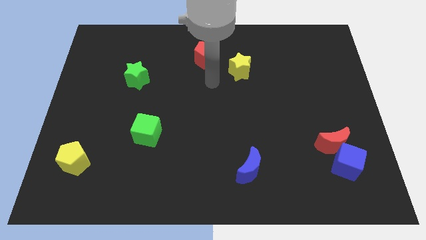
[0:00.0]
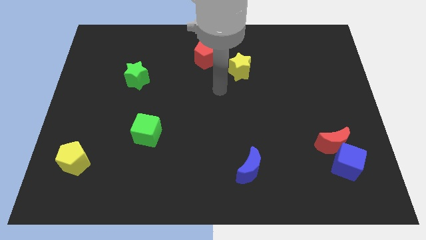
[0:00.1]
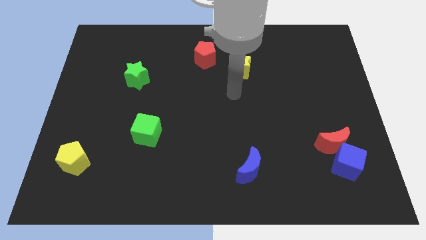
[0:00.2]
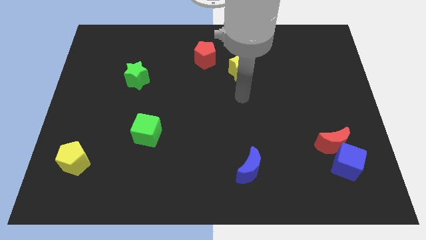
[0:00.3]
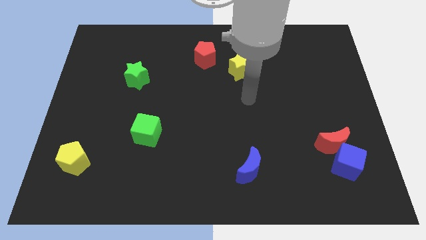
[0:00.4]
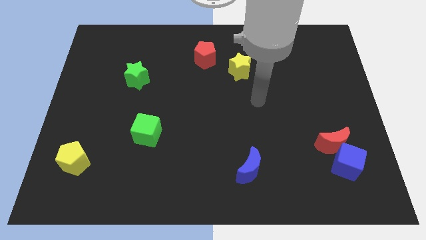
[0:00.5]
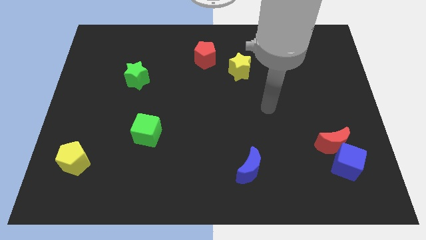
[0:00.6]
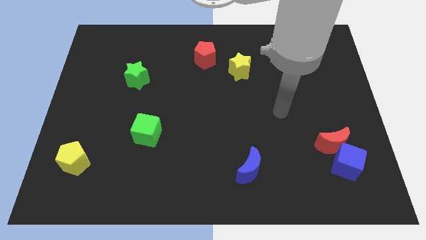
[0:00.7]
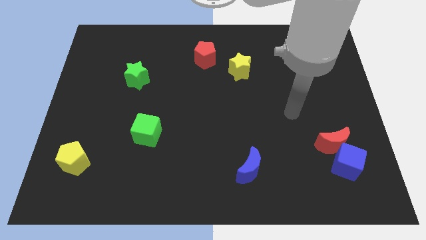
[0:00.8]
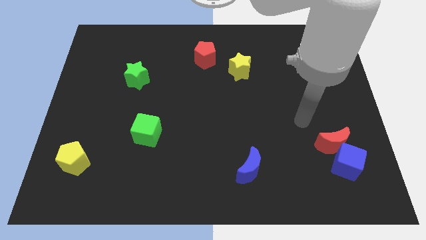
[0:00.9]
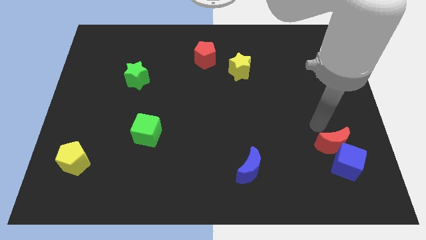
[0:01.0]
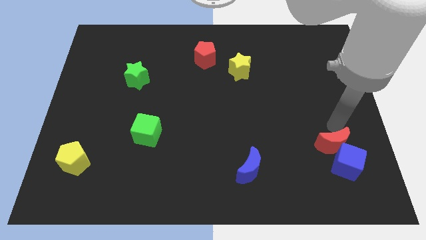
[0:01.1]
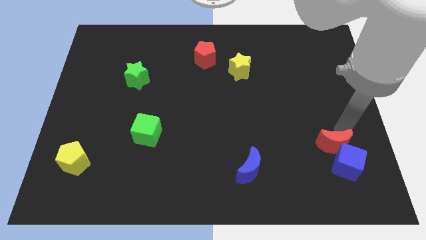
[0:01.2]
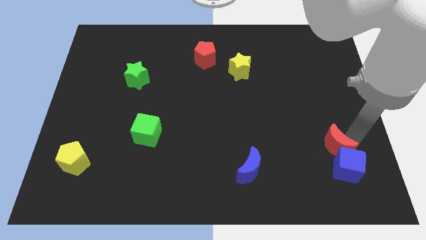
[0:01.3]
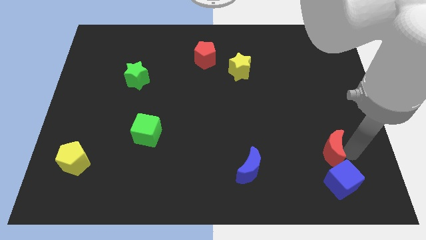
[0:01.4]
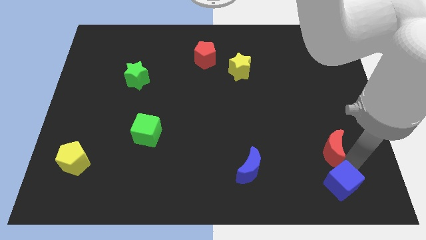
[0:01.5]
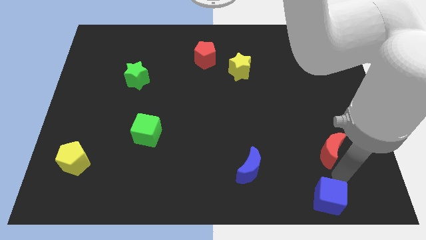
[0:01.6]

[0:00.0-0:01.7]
separate the red moon from the blue cube

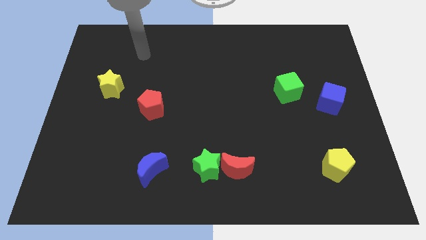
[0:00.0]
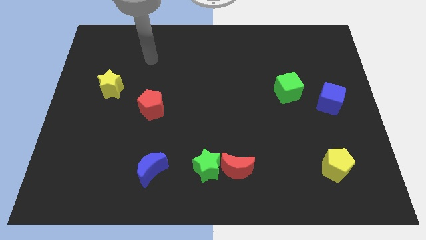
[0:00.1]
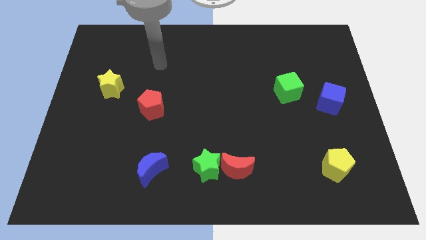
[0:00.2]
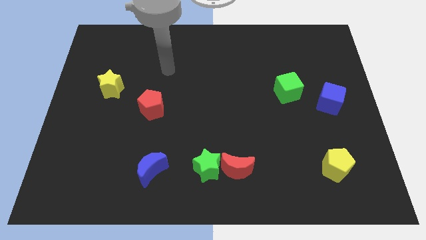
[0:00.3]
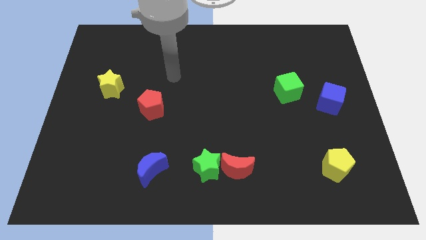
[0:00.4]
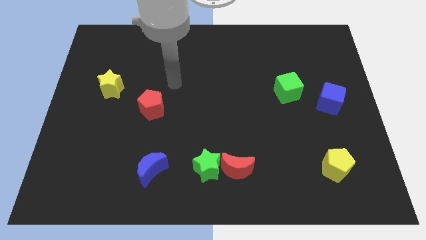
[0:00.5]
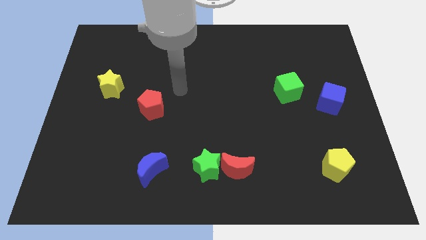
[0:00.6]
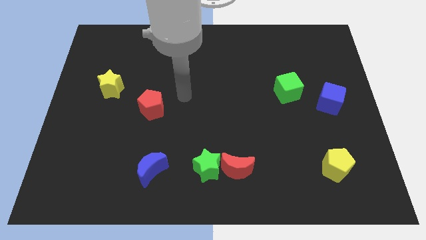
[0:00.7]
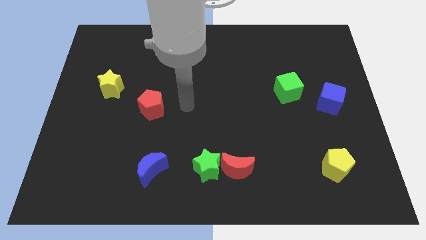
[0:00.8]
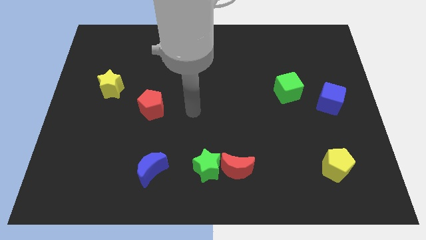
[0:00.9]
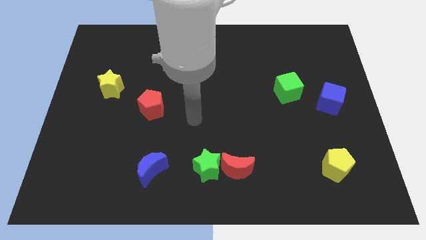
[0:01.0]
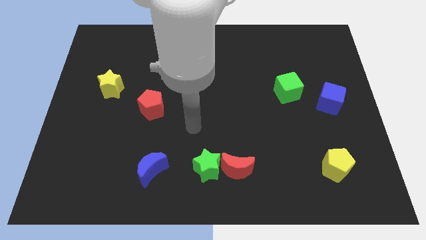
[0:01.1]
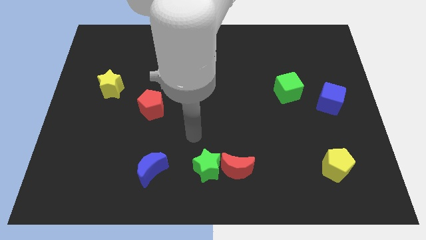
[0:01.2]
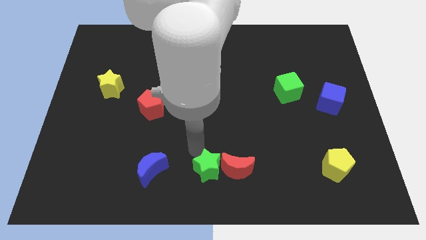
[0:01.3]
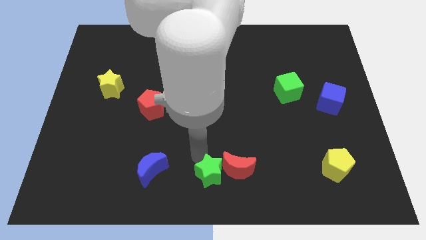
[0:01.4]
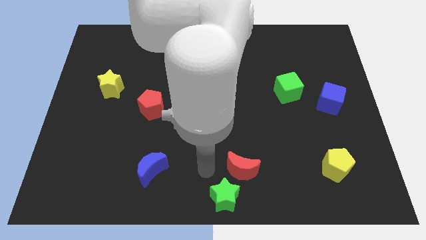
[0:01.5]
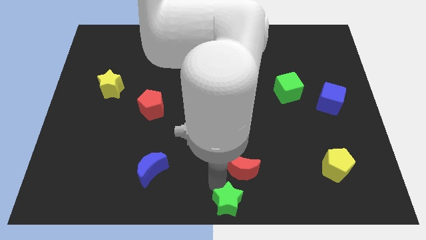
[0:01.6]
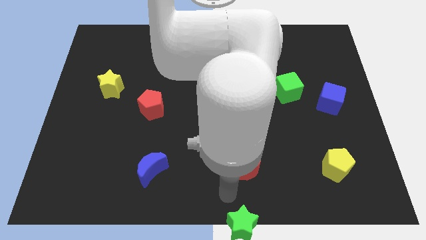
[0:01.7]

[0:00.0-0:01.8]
separate the red moon from the green star

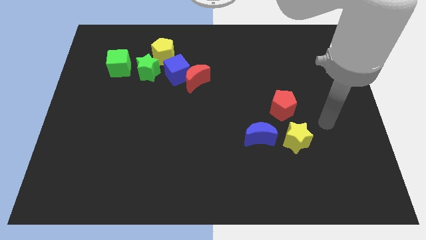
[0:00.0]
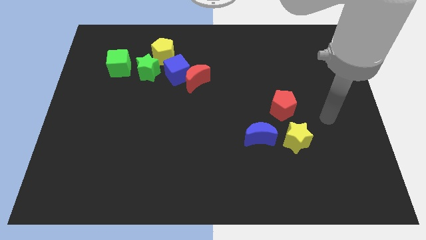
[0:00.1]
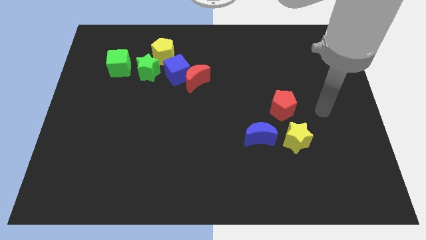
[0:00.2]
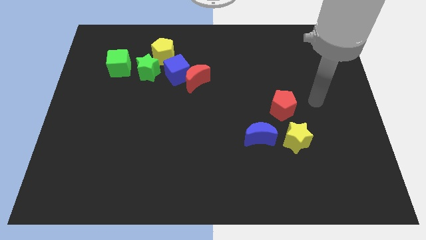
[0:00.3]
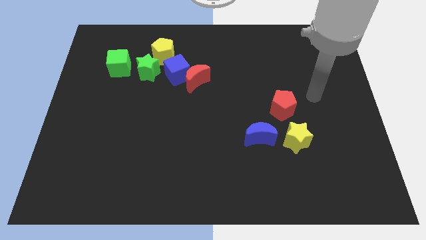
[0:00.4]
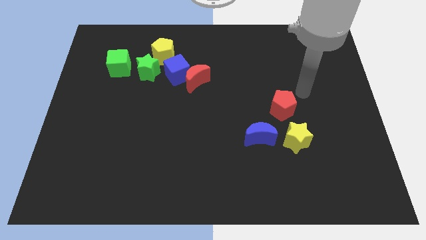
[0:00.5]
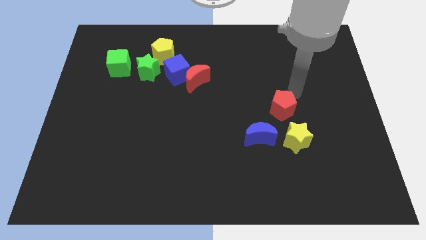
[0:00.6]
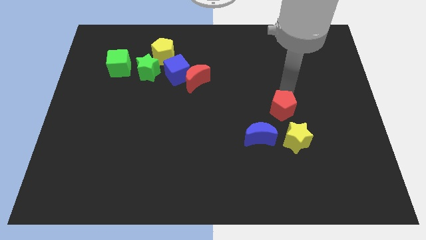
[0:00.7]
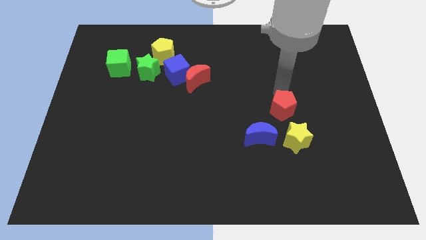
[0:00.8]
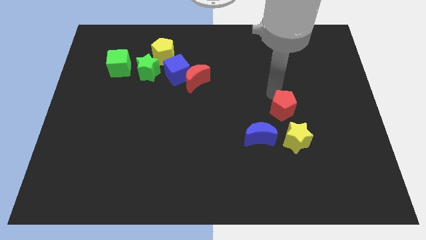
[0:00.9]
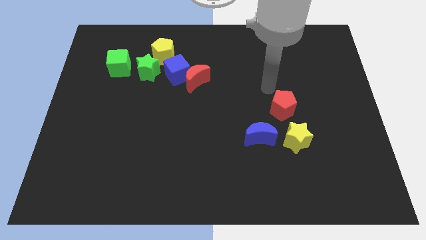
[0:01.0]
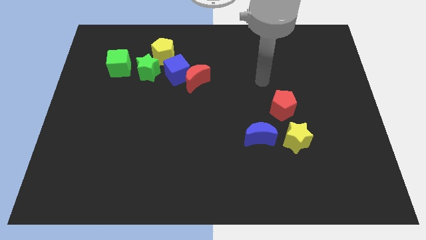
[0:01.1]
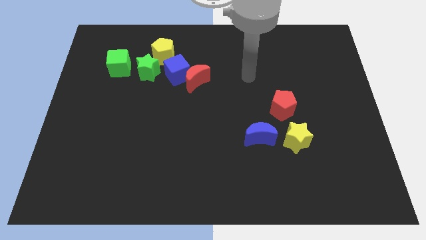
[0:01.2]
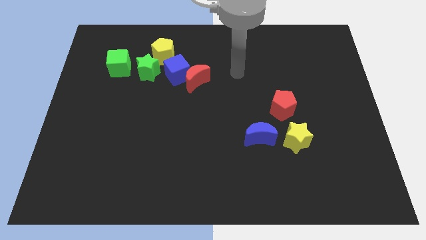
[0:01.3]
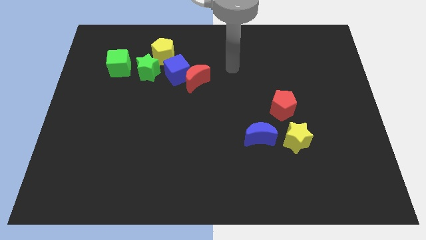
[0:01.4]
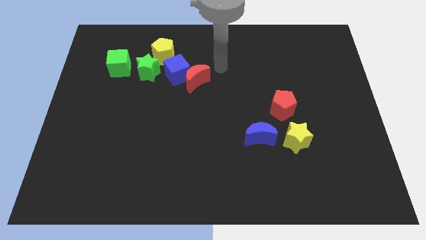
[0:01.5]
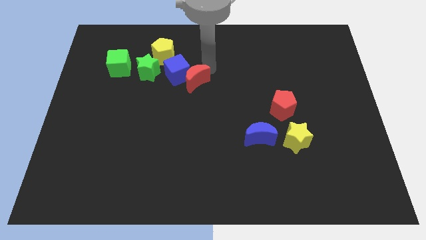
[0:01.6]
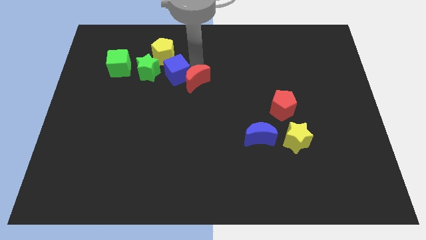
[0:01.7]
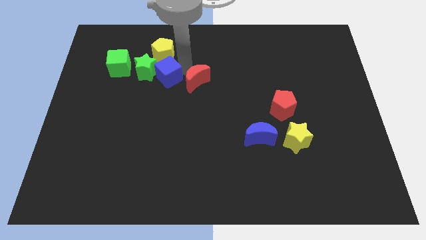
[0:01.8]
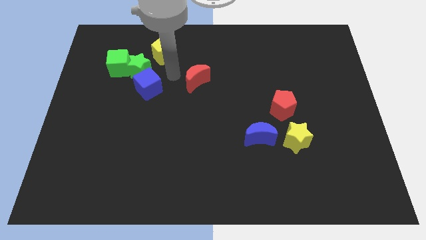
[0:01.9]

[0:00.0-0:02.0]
move the red moon away from the blue cube

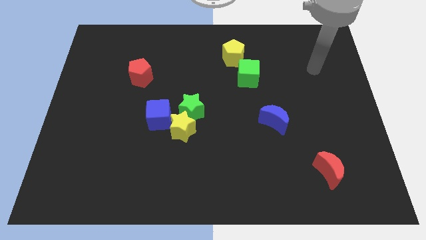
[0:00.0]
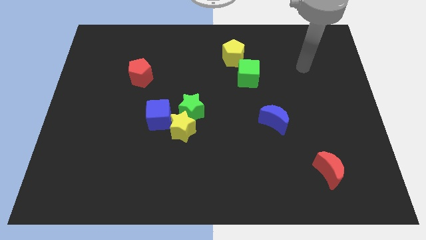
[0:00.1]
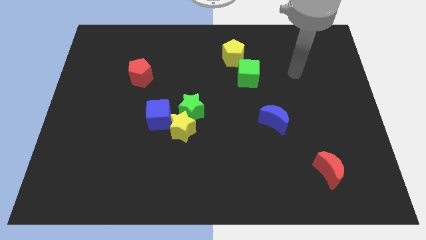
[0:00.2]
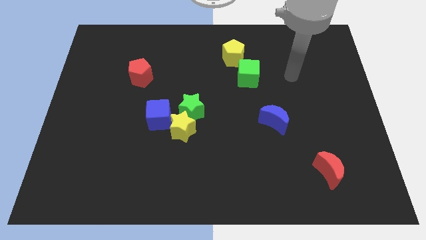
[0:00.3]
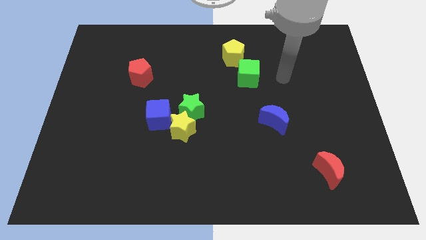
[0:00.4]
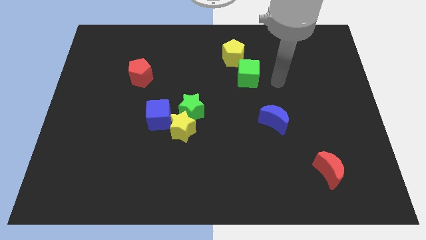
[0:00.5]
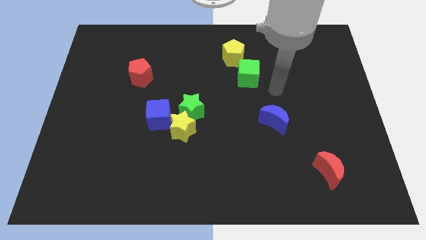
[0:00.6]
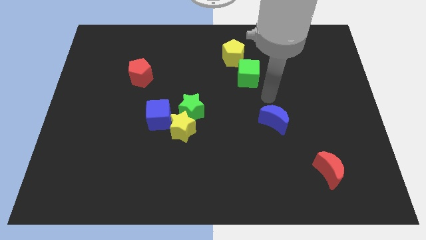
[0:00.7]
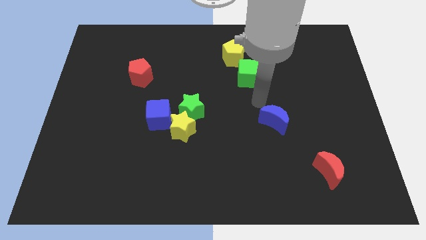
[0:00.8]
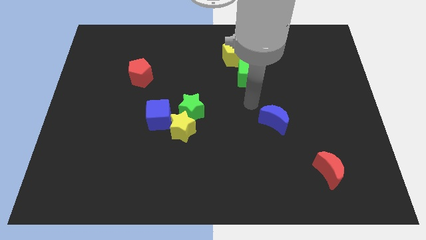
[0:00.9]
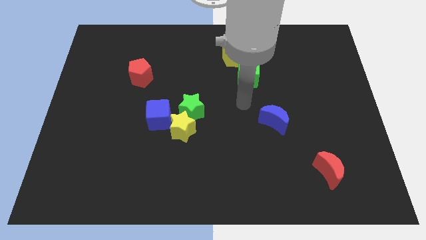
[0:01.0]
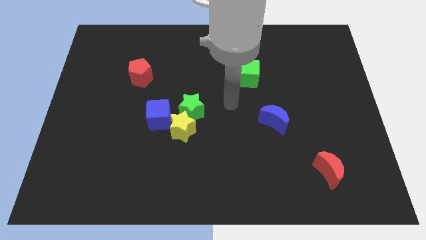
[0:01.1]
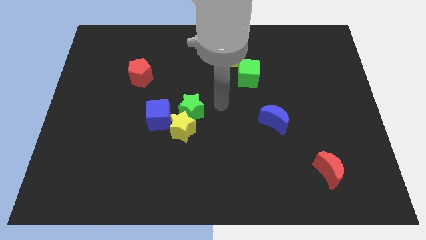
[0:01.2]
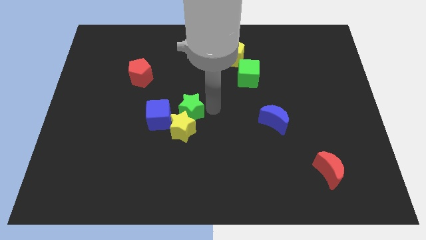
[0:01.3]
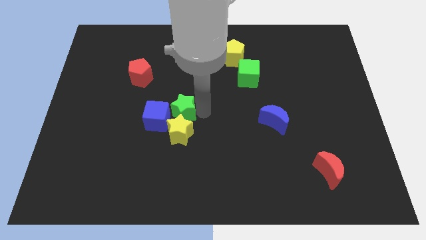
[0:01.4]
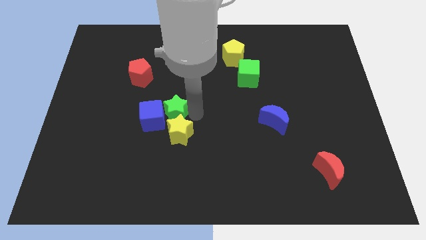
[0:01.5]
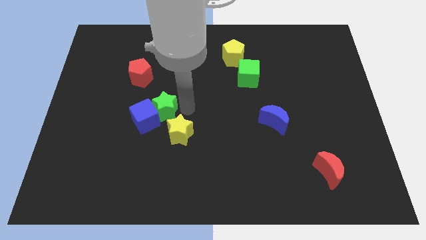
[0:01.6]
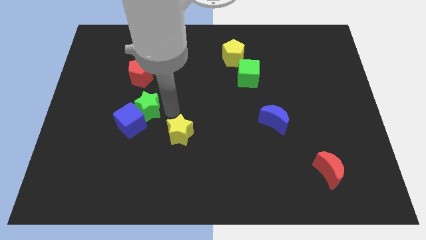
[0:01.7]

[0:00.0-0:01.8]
move the yellow star away from the green star and blue cube

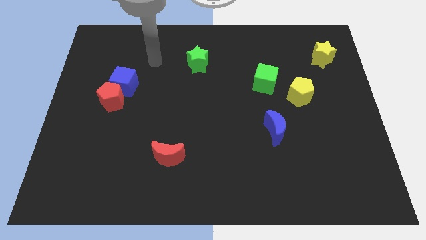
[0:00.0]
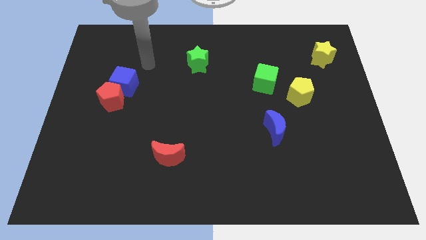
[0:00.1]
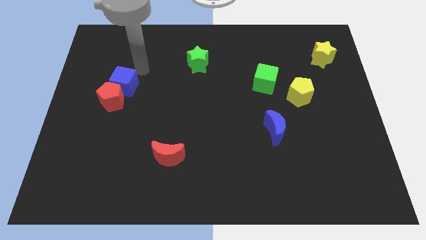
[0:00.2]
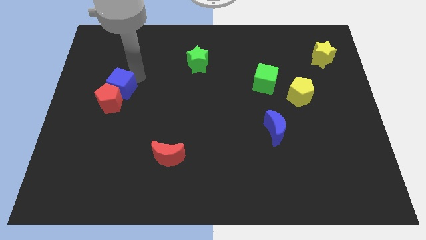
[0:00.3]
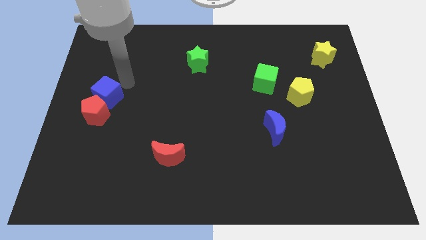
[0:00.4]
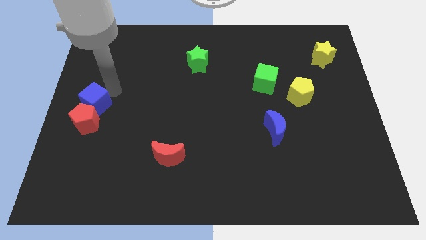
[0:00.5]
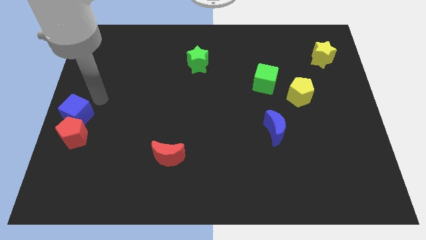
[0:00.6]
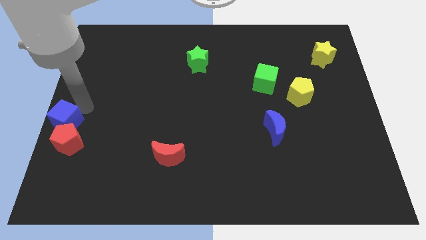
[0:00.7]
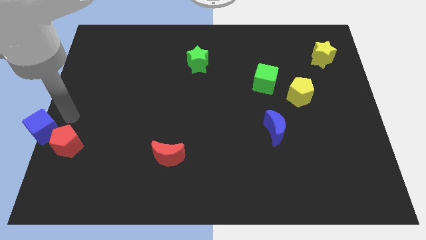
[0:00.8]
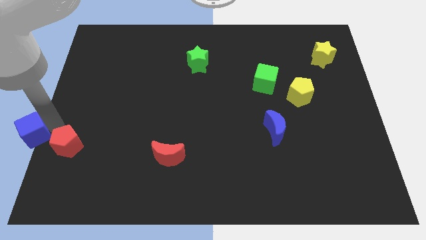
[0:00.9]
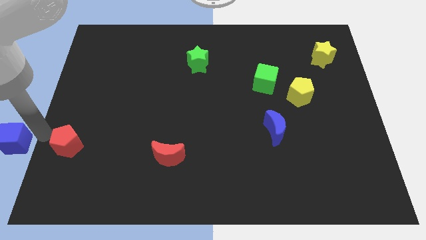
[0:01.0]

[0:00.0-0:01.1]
separate the red pentagon from the blue cube

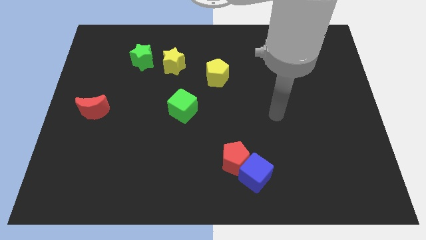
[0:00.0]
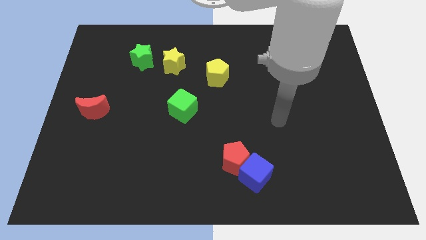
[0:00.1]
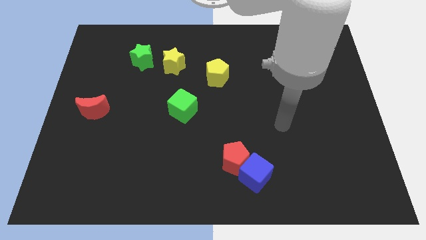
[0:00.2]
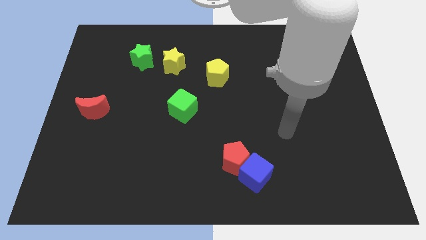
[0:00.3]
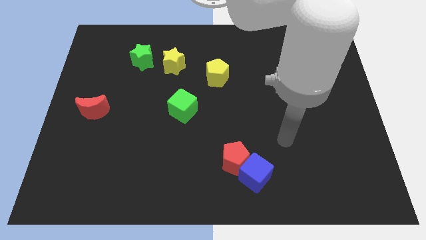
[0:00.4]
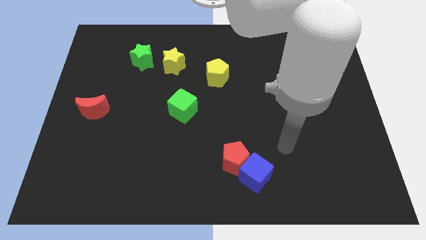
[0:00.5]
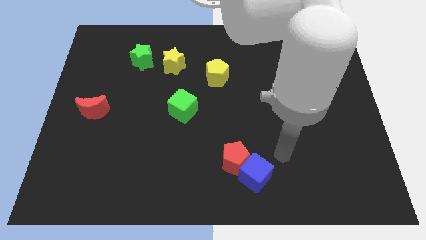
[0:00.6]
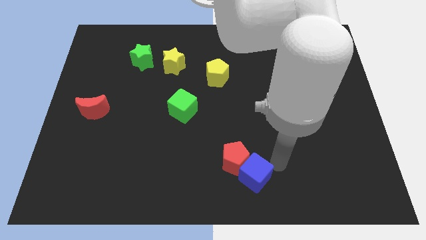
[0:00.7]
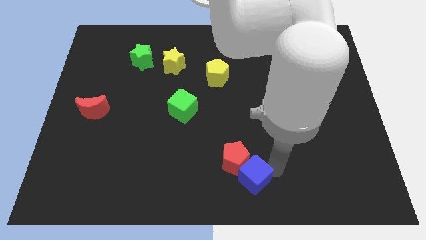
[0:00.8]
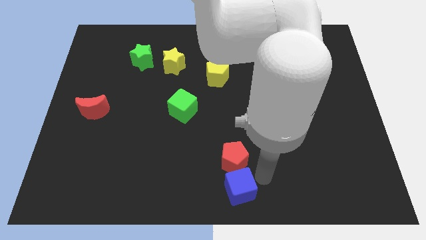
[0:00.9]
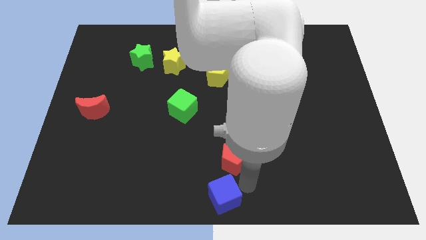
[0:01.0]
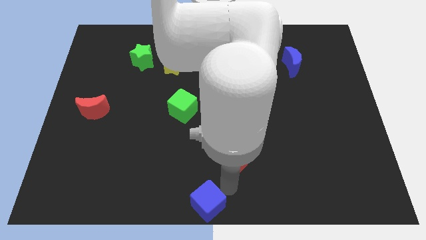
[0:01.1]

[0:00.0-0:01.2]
move the red pentagon away from the blue cube
